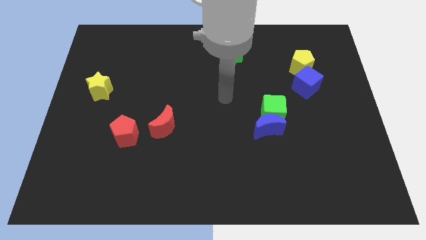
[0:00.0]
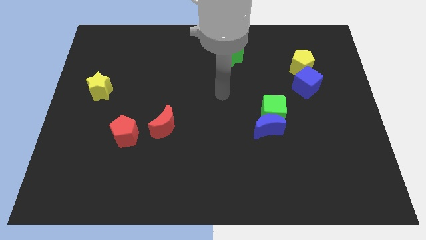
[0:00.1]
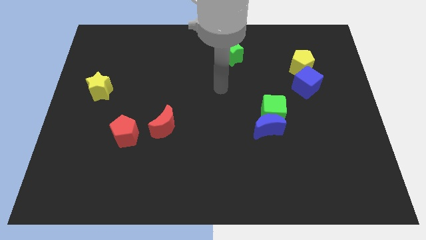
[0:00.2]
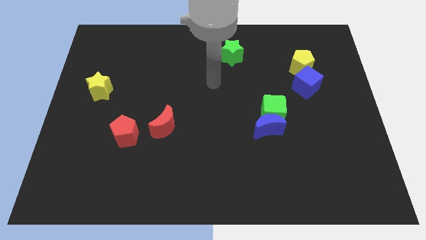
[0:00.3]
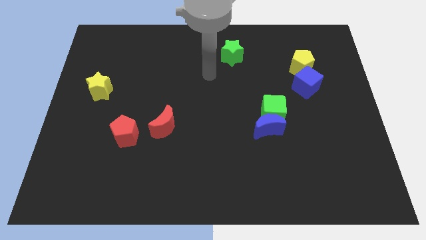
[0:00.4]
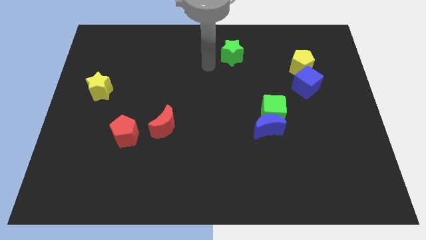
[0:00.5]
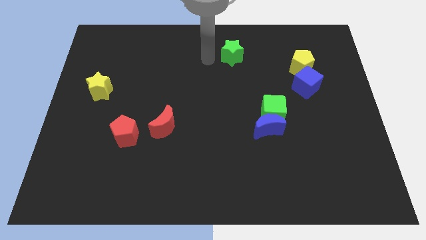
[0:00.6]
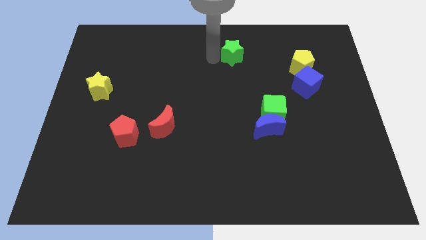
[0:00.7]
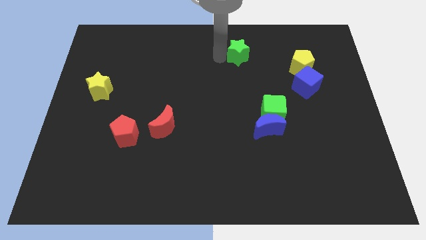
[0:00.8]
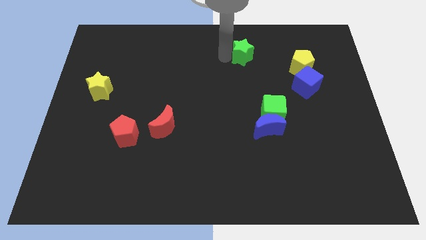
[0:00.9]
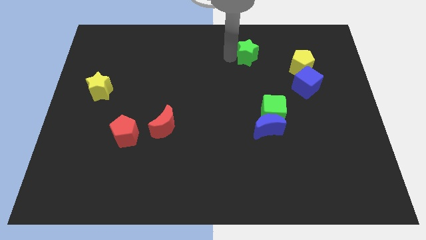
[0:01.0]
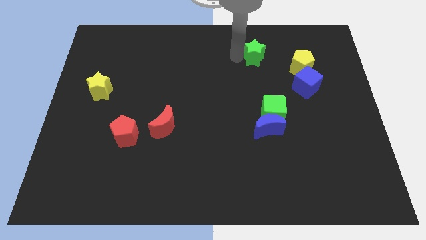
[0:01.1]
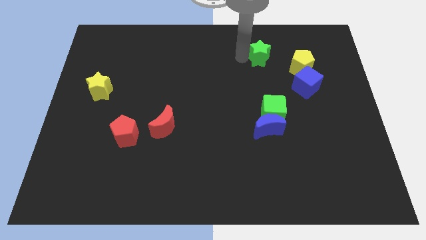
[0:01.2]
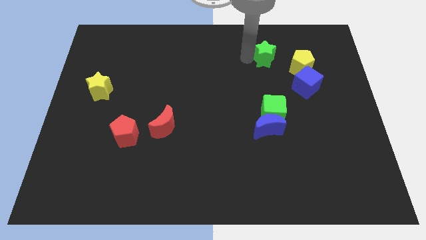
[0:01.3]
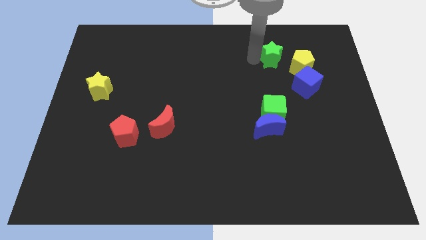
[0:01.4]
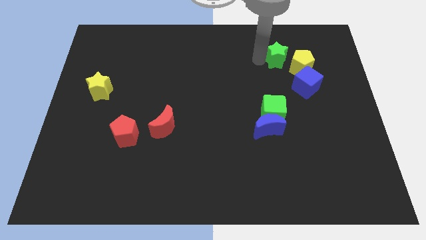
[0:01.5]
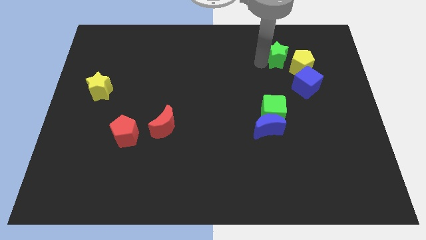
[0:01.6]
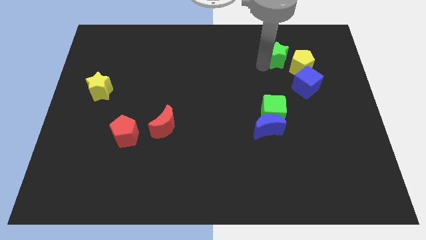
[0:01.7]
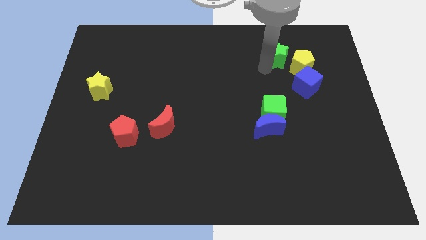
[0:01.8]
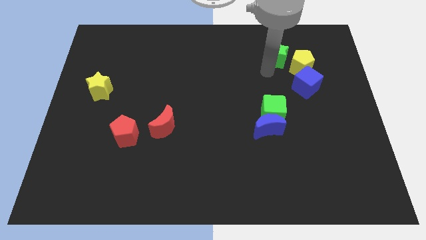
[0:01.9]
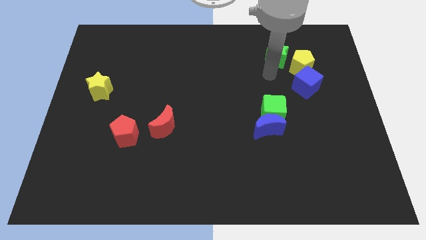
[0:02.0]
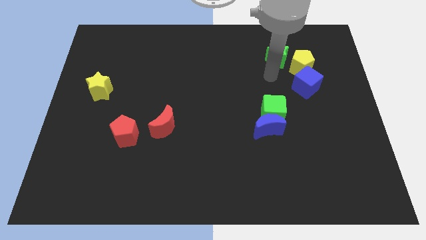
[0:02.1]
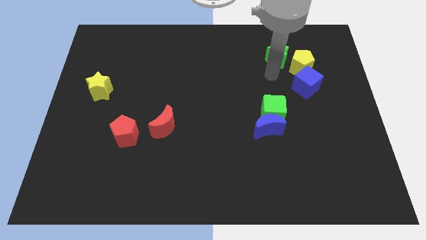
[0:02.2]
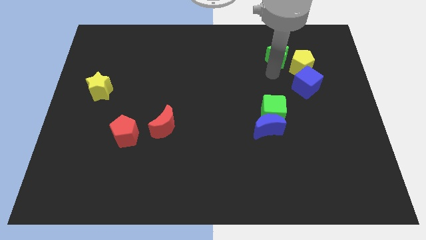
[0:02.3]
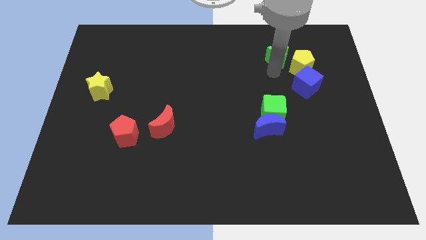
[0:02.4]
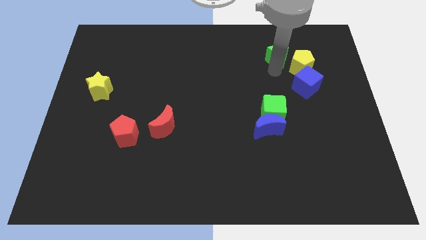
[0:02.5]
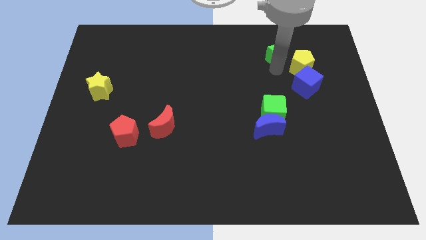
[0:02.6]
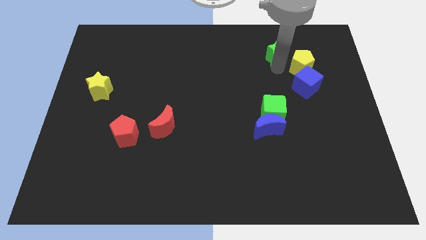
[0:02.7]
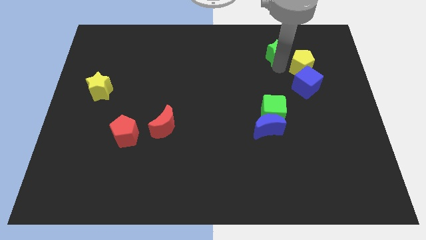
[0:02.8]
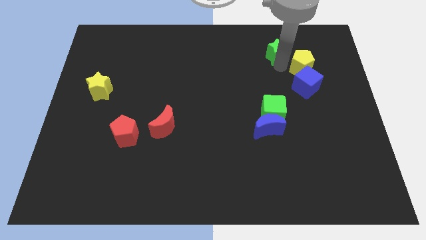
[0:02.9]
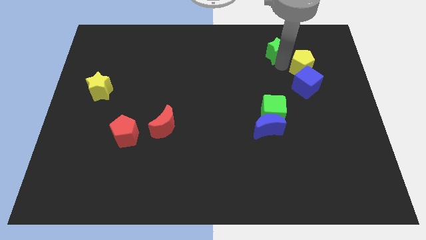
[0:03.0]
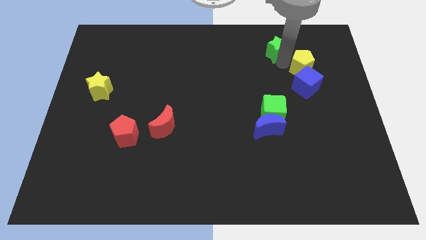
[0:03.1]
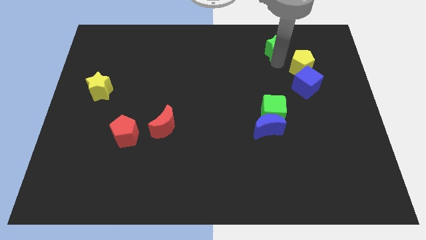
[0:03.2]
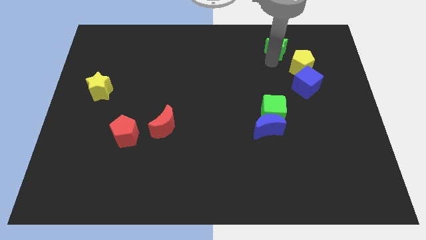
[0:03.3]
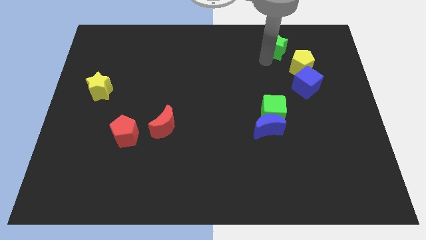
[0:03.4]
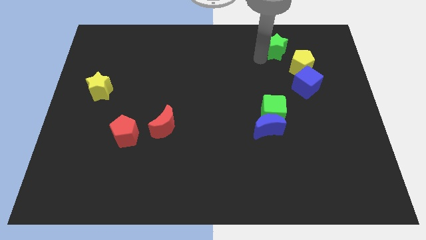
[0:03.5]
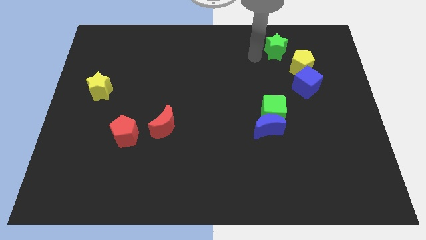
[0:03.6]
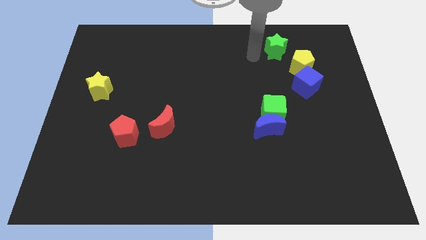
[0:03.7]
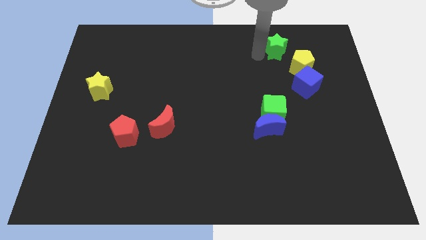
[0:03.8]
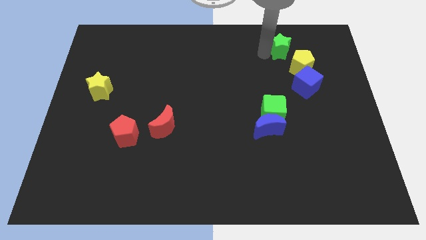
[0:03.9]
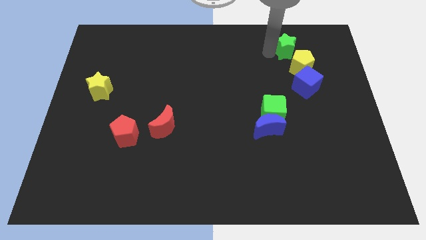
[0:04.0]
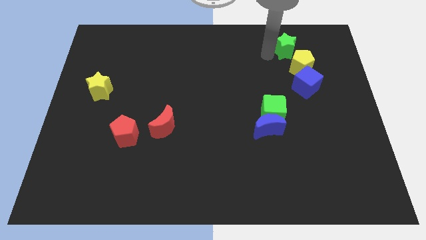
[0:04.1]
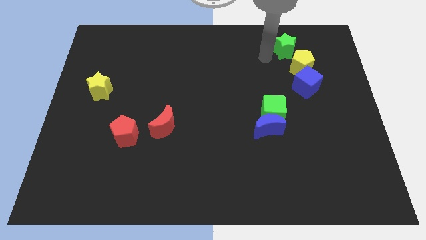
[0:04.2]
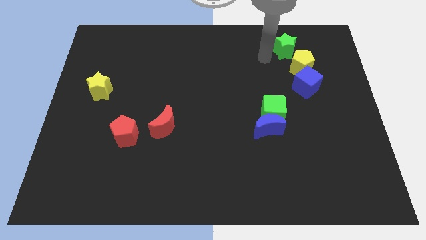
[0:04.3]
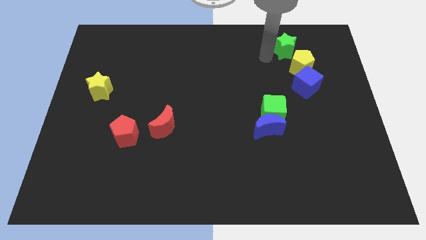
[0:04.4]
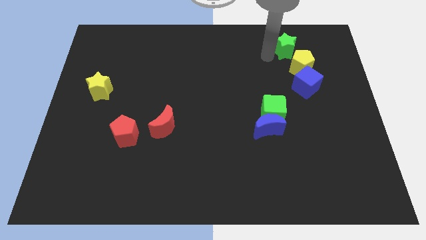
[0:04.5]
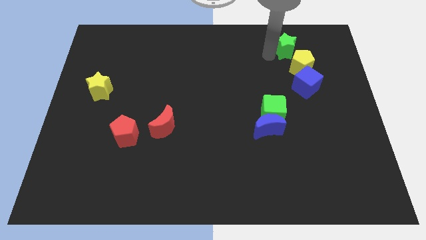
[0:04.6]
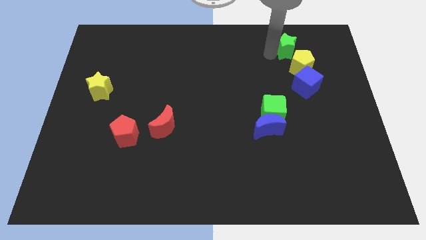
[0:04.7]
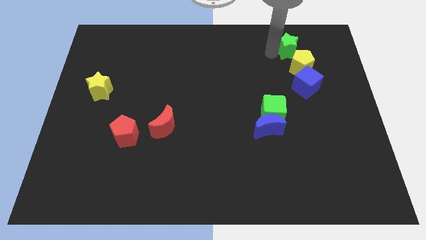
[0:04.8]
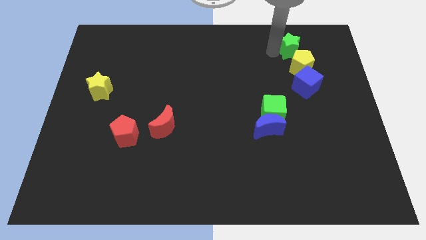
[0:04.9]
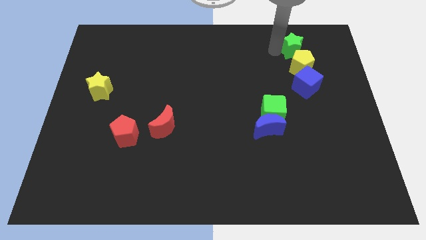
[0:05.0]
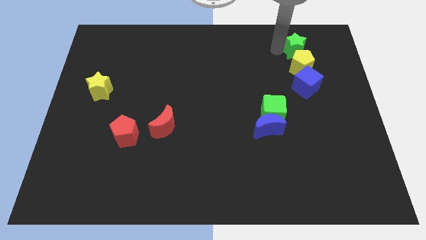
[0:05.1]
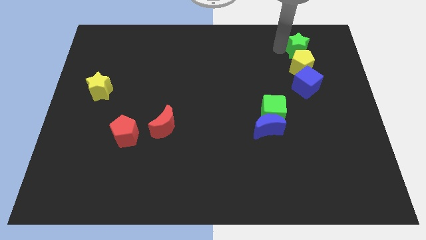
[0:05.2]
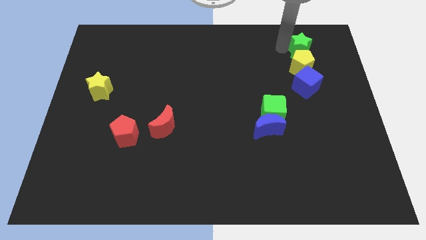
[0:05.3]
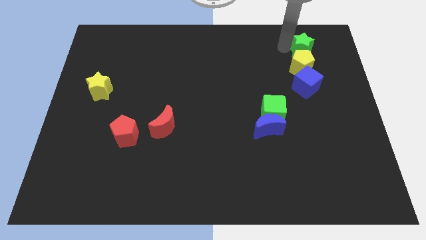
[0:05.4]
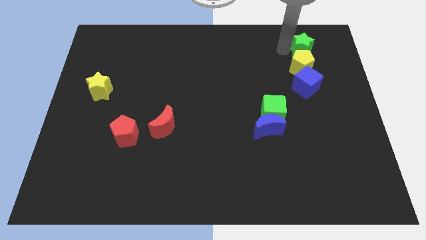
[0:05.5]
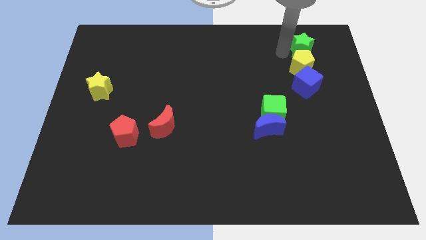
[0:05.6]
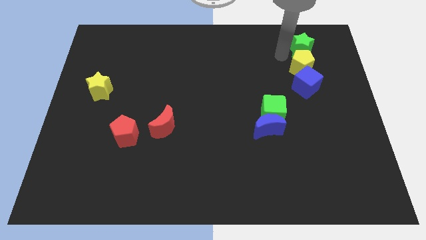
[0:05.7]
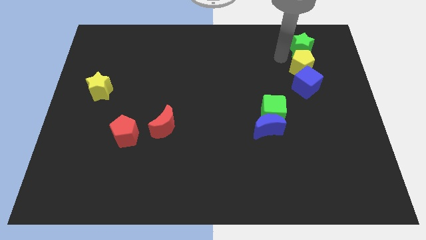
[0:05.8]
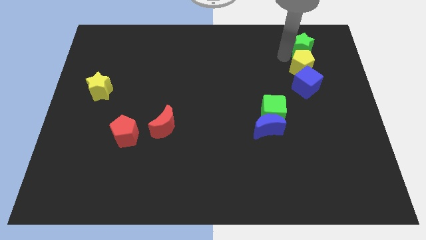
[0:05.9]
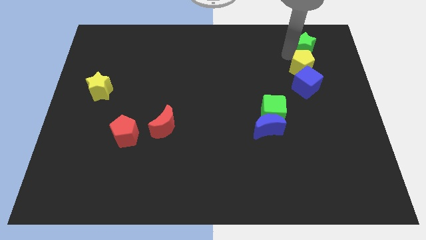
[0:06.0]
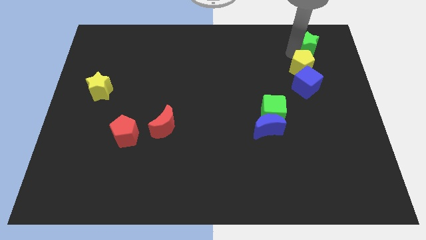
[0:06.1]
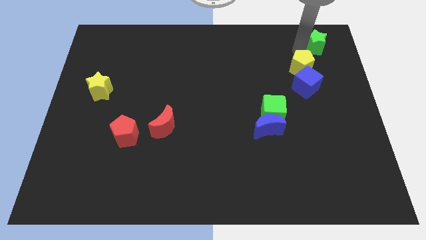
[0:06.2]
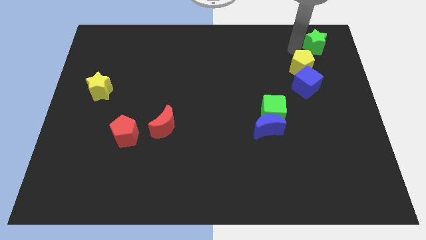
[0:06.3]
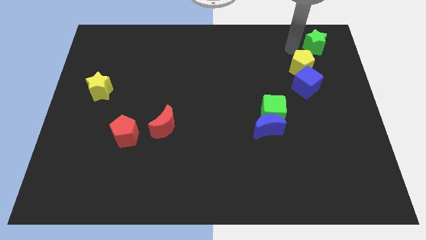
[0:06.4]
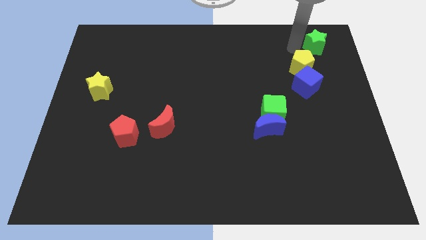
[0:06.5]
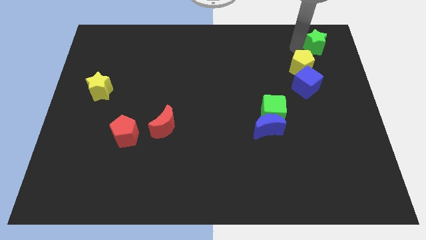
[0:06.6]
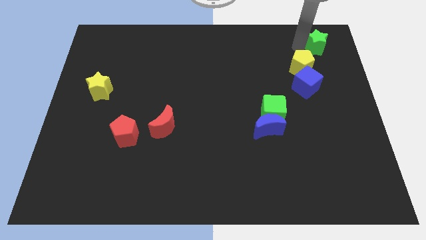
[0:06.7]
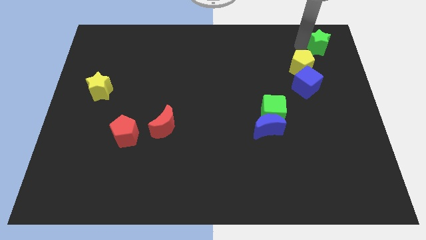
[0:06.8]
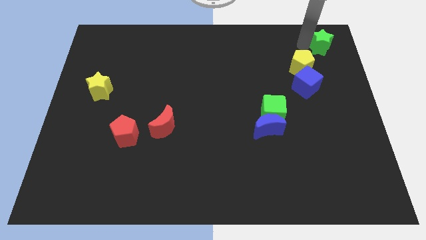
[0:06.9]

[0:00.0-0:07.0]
put the green star to the top right corner

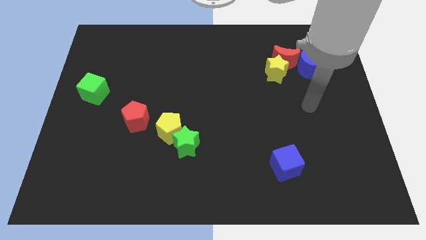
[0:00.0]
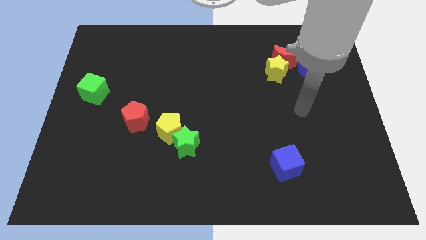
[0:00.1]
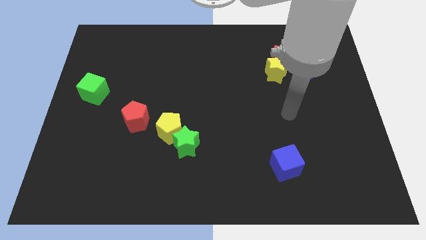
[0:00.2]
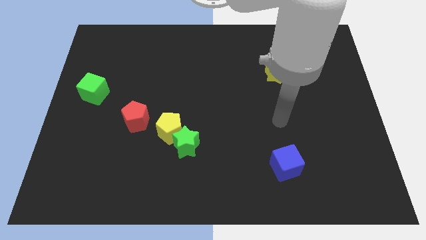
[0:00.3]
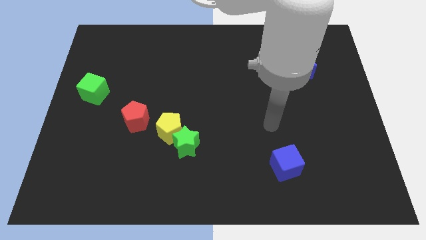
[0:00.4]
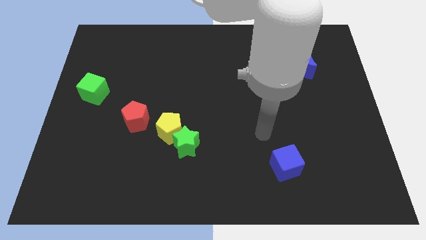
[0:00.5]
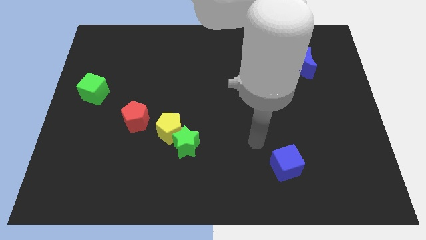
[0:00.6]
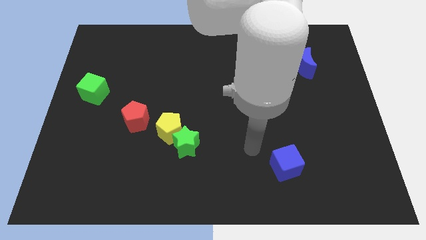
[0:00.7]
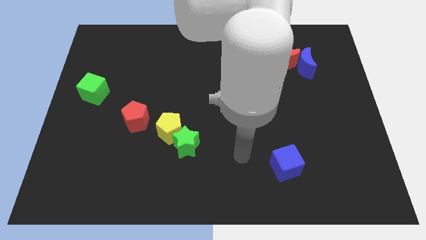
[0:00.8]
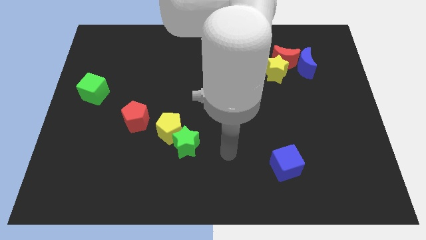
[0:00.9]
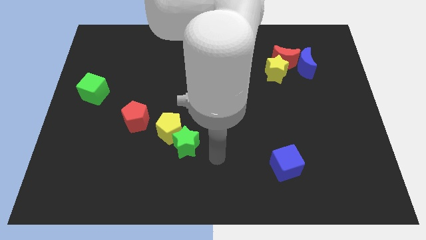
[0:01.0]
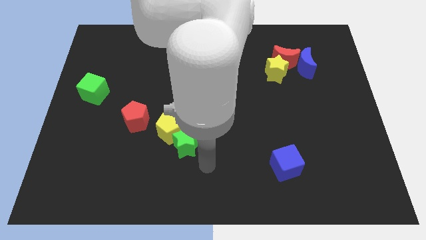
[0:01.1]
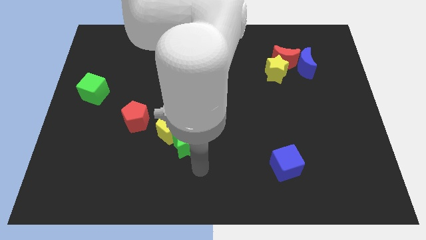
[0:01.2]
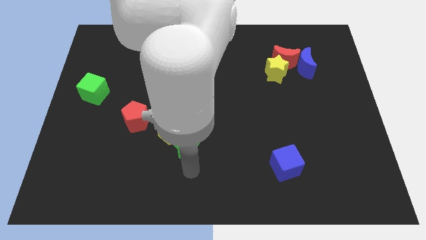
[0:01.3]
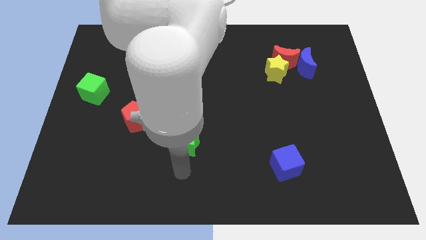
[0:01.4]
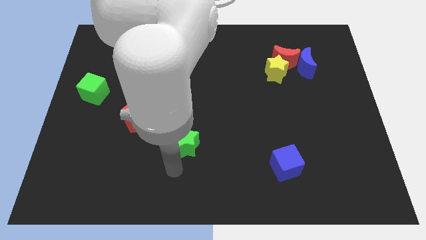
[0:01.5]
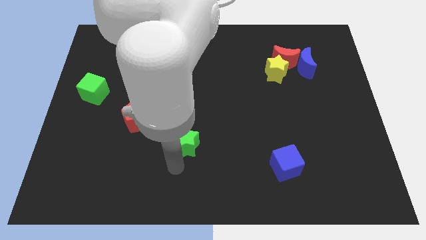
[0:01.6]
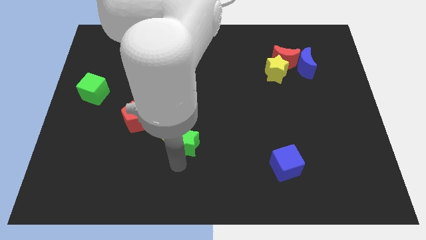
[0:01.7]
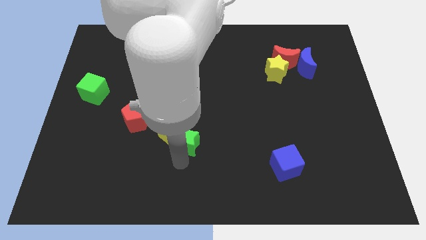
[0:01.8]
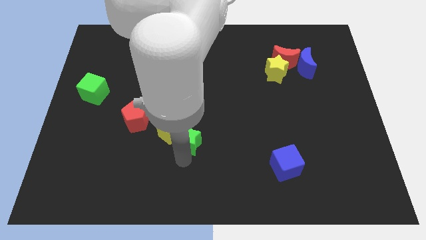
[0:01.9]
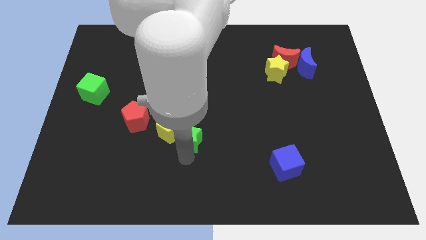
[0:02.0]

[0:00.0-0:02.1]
put the green star to the center of the board
